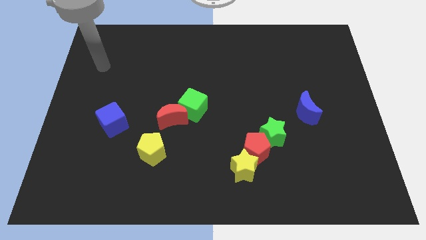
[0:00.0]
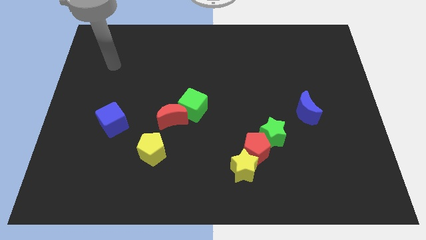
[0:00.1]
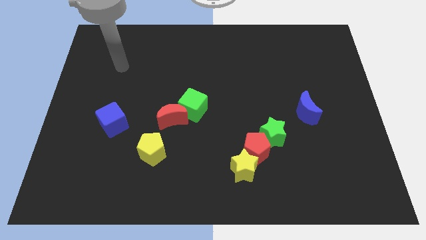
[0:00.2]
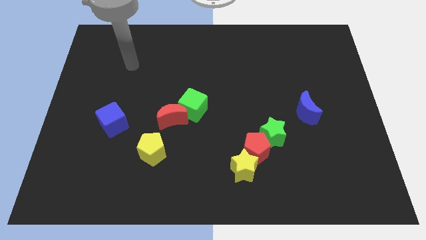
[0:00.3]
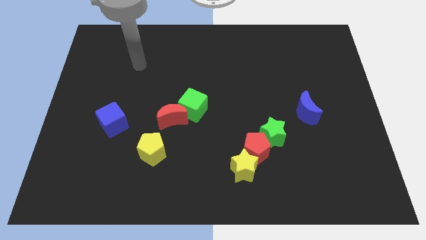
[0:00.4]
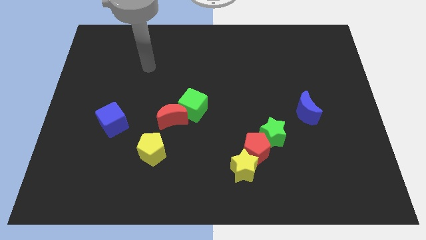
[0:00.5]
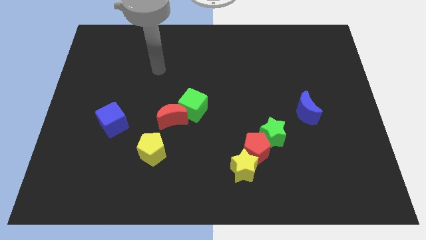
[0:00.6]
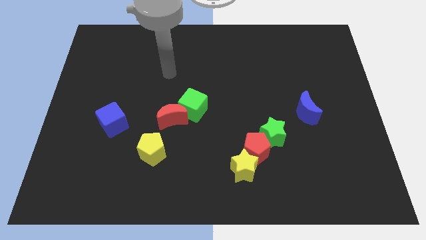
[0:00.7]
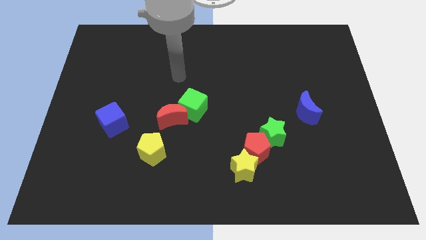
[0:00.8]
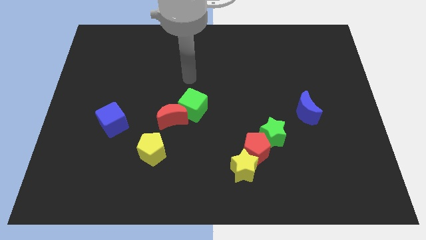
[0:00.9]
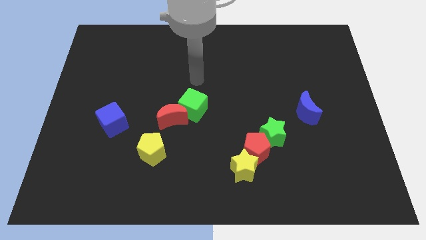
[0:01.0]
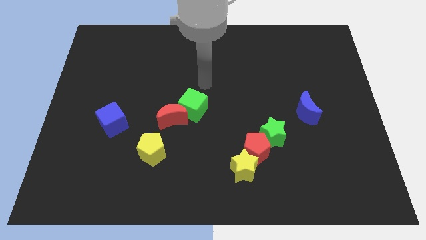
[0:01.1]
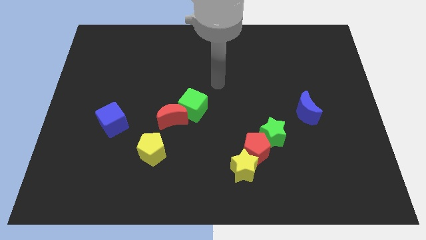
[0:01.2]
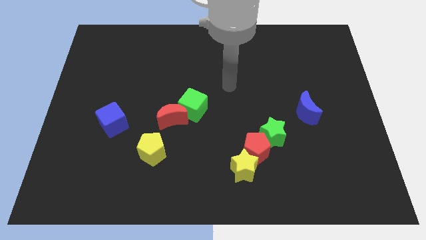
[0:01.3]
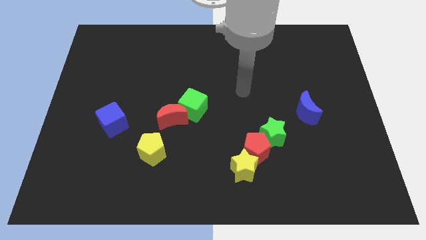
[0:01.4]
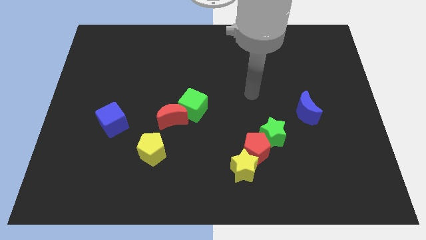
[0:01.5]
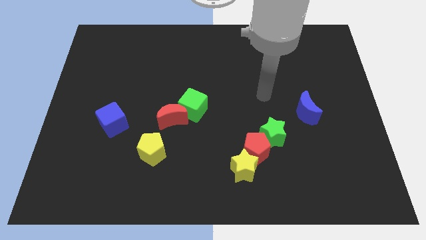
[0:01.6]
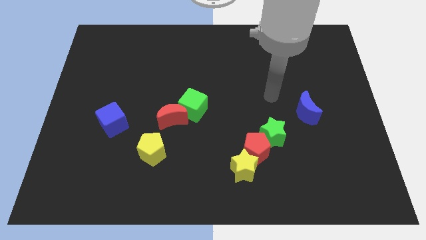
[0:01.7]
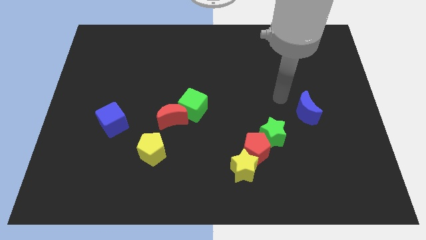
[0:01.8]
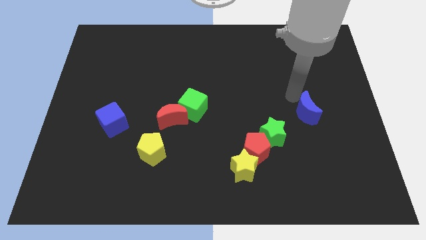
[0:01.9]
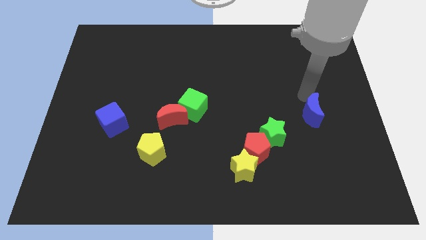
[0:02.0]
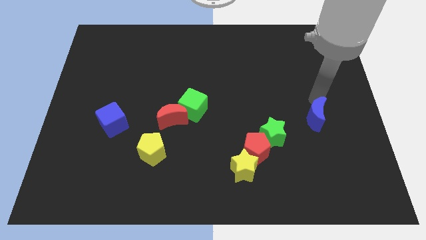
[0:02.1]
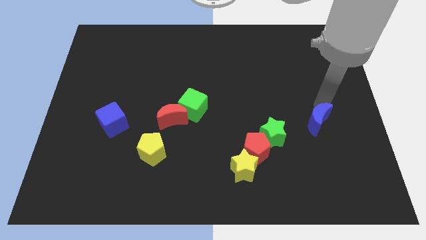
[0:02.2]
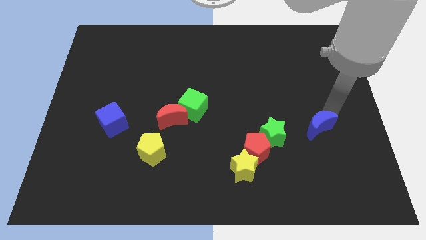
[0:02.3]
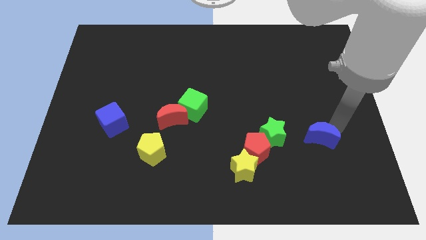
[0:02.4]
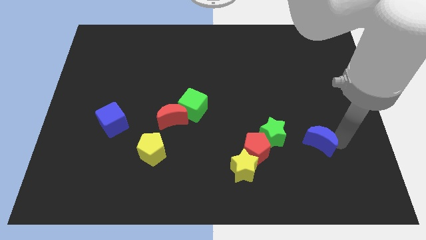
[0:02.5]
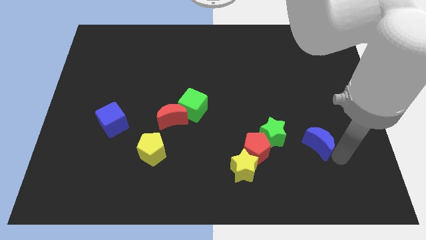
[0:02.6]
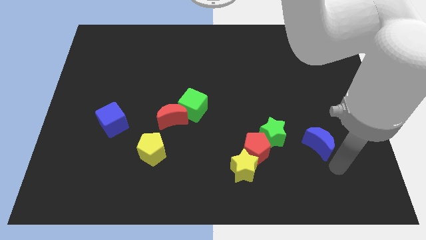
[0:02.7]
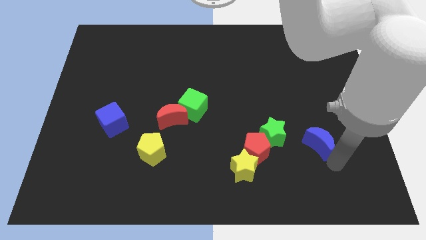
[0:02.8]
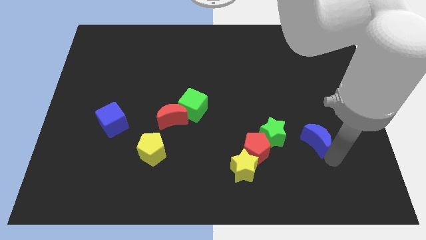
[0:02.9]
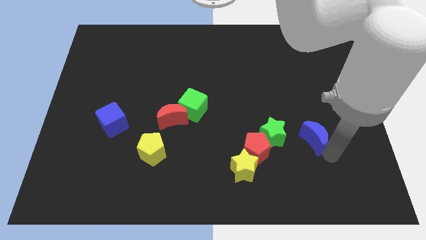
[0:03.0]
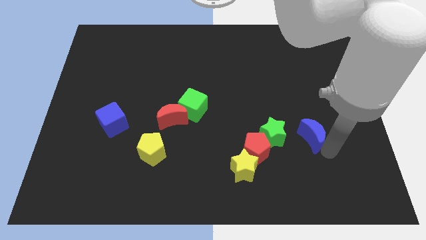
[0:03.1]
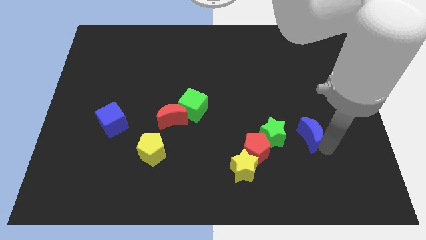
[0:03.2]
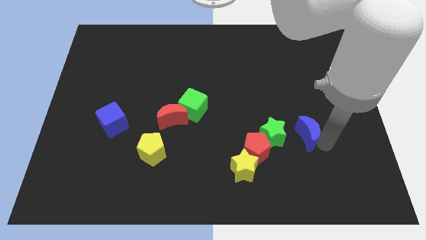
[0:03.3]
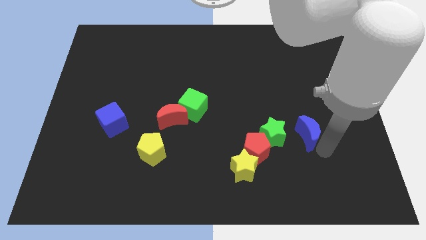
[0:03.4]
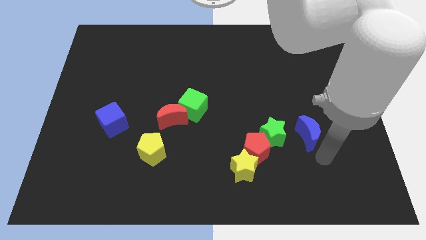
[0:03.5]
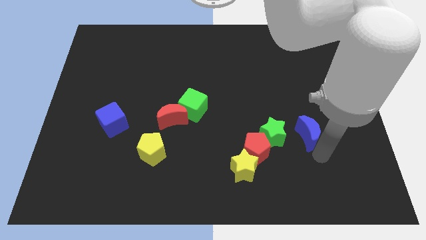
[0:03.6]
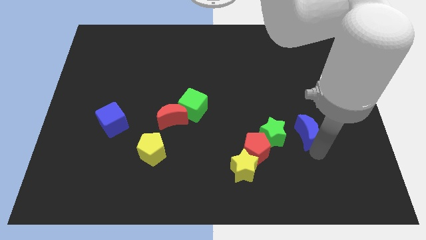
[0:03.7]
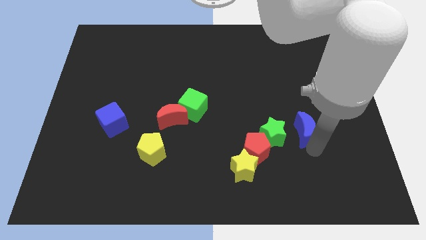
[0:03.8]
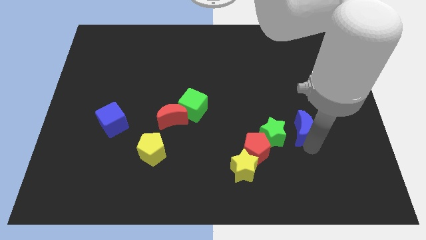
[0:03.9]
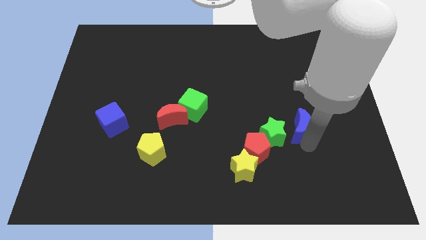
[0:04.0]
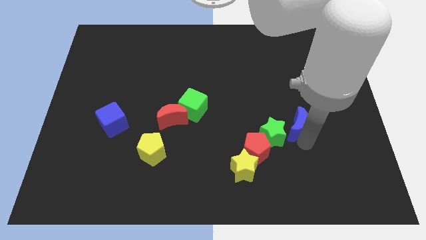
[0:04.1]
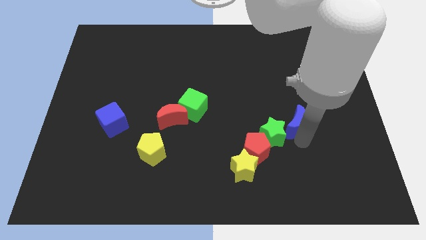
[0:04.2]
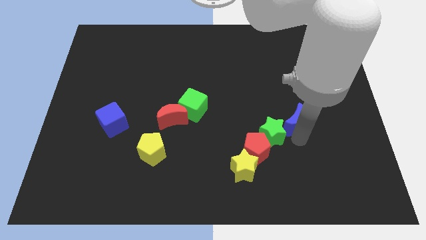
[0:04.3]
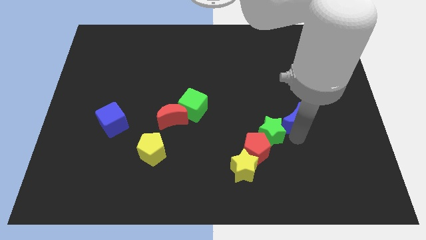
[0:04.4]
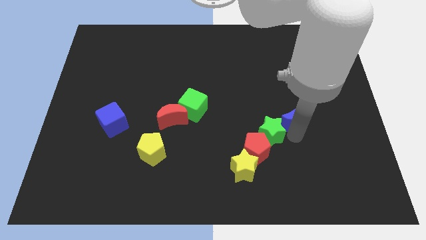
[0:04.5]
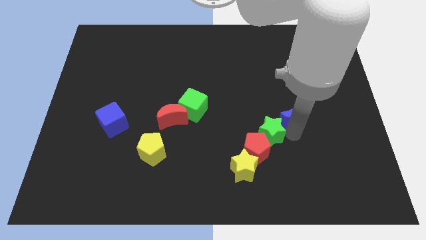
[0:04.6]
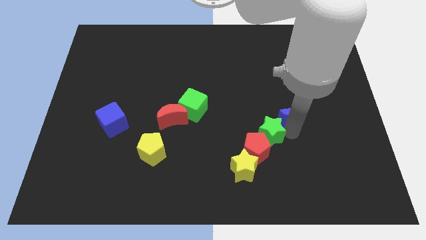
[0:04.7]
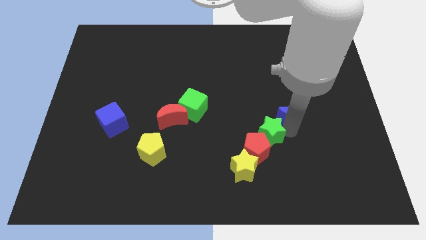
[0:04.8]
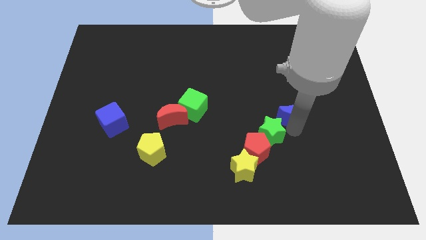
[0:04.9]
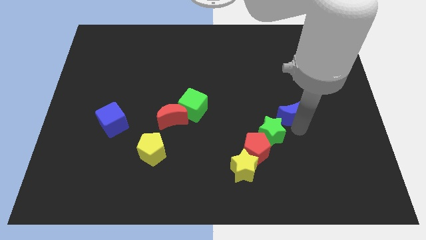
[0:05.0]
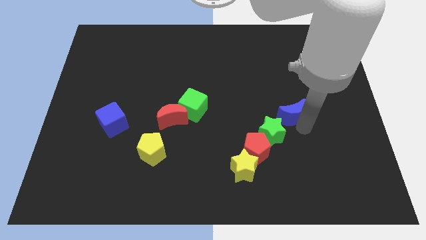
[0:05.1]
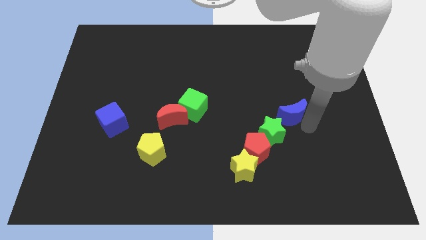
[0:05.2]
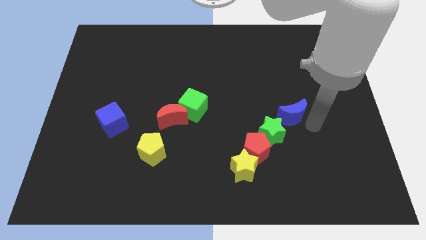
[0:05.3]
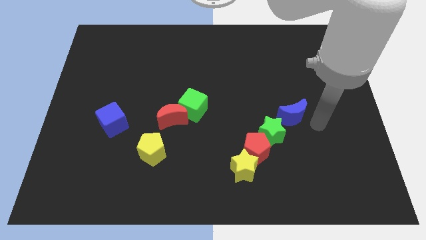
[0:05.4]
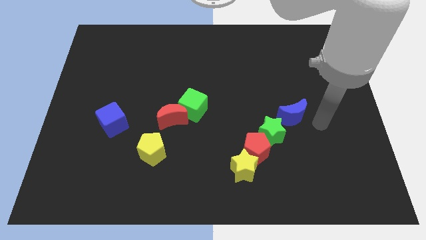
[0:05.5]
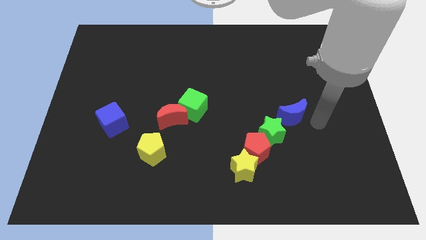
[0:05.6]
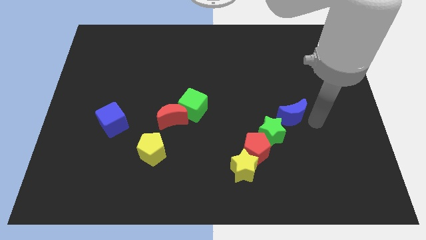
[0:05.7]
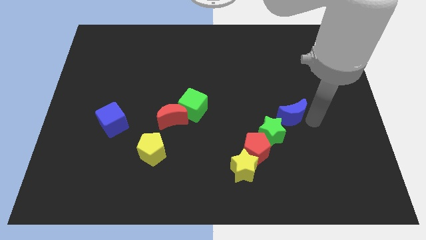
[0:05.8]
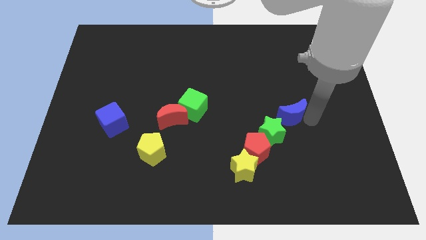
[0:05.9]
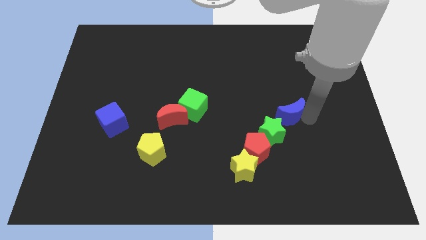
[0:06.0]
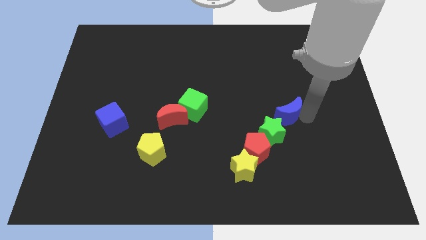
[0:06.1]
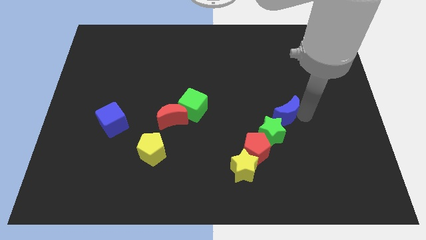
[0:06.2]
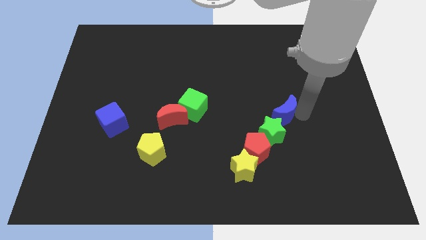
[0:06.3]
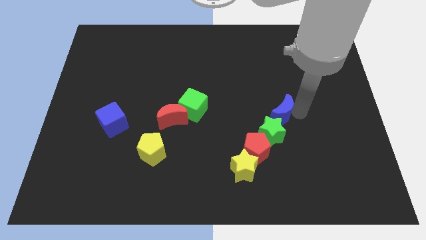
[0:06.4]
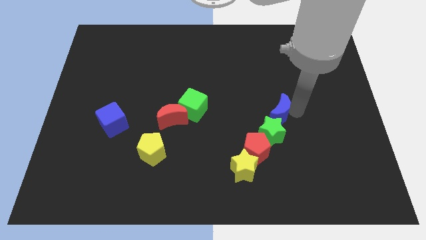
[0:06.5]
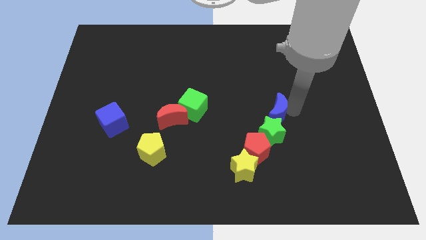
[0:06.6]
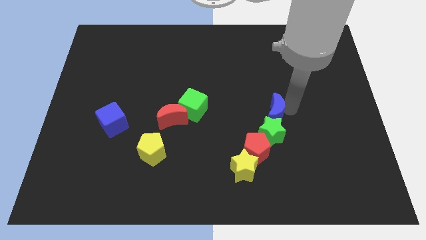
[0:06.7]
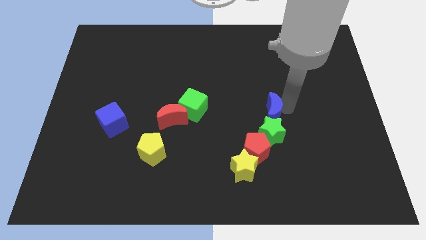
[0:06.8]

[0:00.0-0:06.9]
push the blue moon to the top of the red pentagon

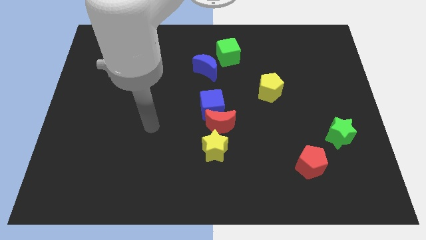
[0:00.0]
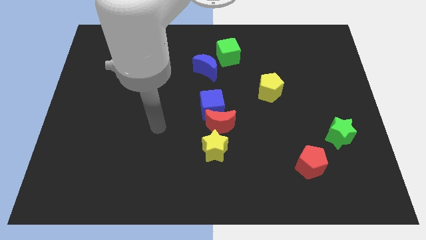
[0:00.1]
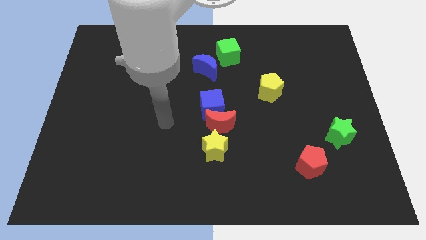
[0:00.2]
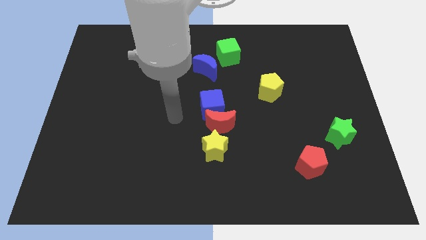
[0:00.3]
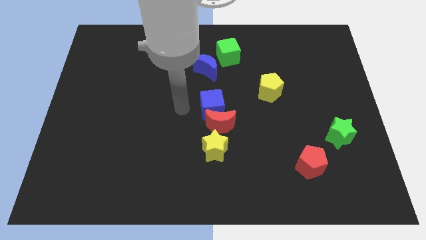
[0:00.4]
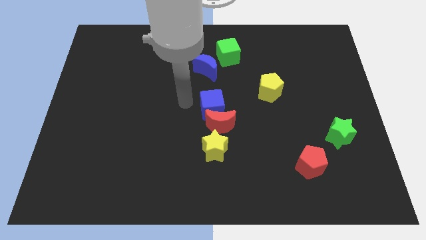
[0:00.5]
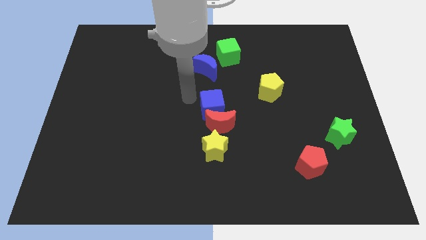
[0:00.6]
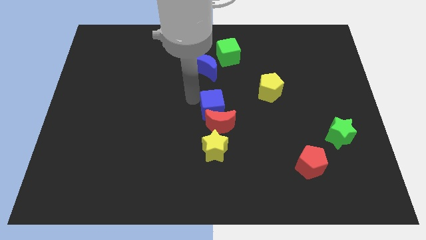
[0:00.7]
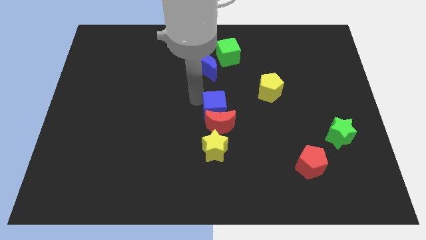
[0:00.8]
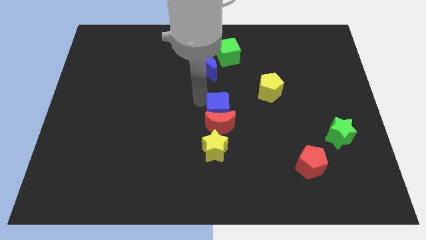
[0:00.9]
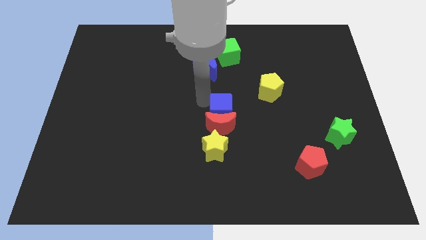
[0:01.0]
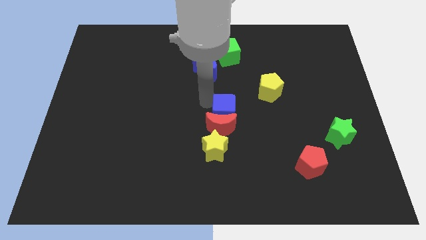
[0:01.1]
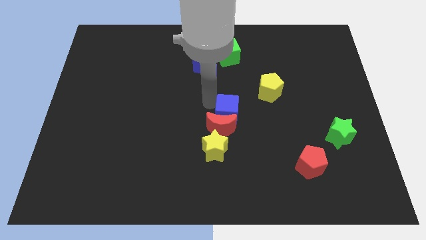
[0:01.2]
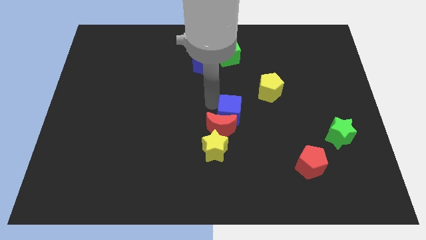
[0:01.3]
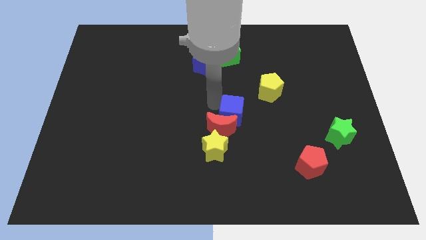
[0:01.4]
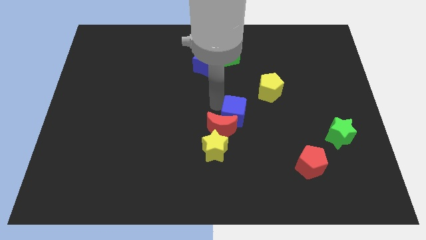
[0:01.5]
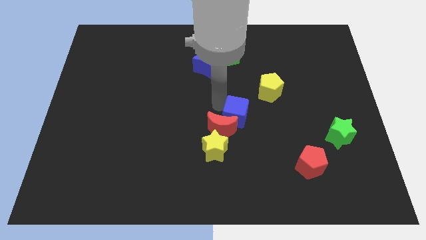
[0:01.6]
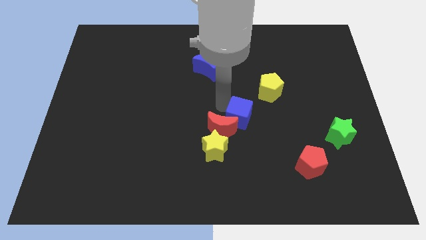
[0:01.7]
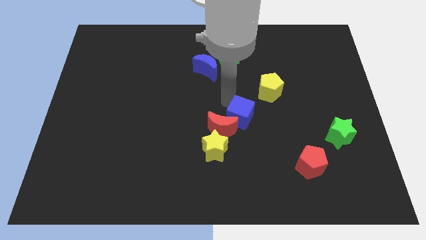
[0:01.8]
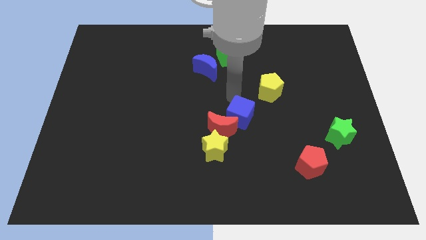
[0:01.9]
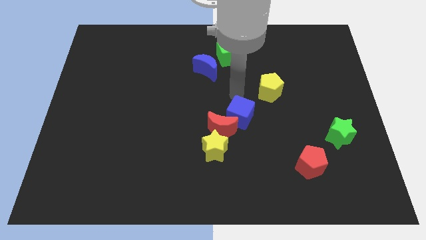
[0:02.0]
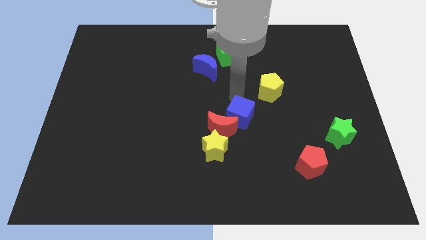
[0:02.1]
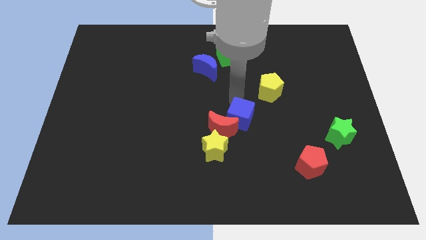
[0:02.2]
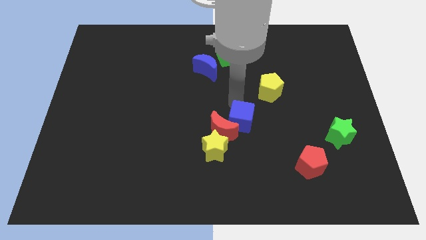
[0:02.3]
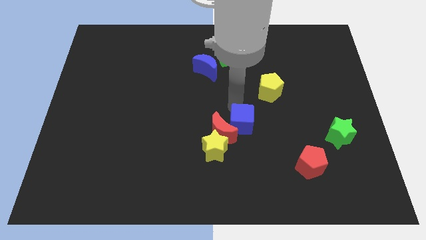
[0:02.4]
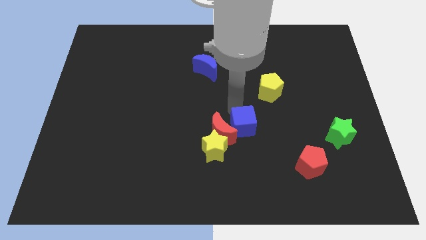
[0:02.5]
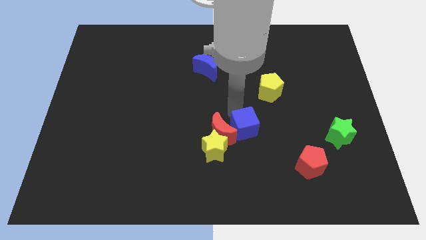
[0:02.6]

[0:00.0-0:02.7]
slide the blue cube to the bottom right side of the red moon
